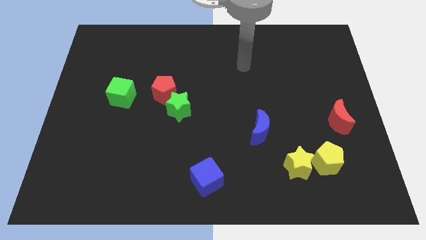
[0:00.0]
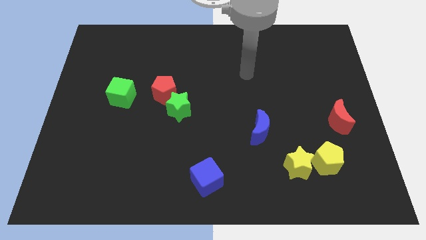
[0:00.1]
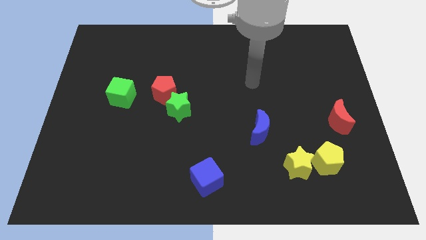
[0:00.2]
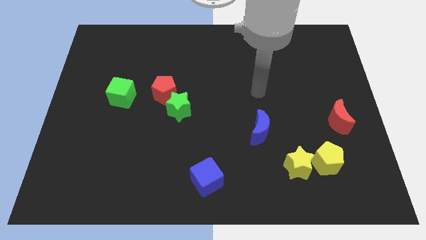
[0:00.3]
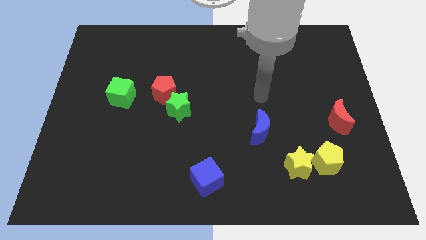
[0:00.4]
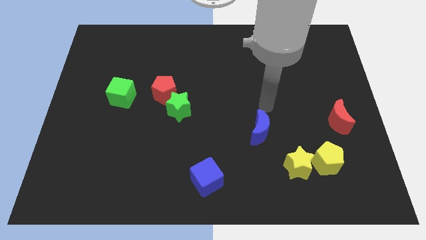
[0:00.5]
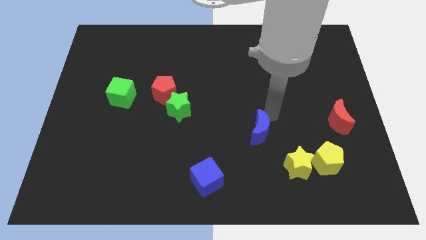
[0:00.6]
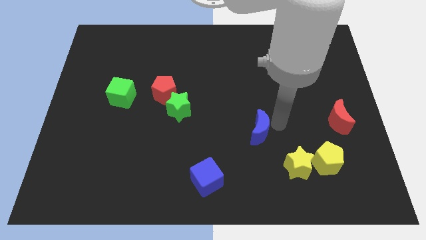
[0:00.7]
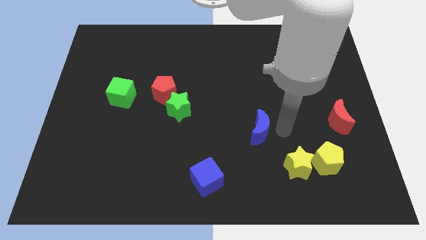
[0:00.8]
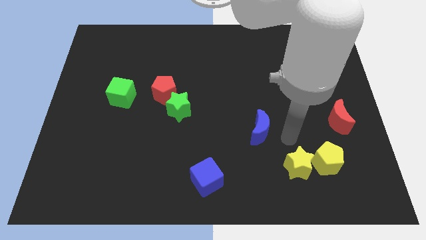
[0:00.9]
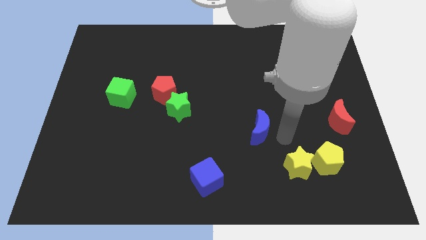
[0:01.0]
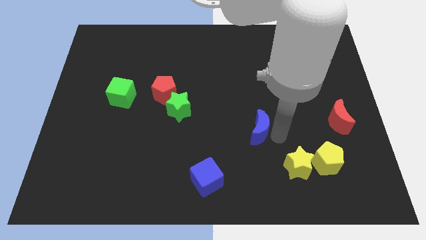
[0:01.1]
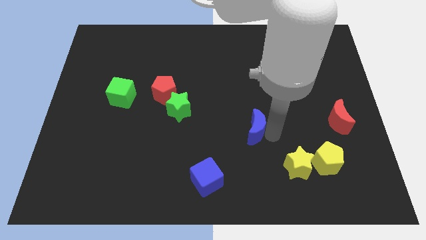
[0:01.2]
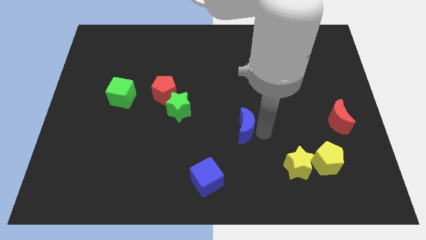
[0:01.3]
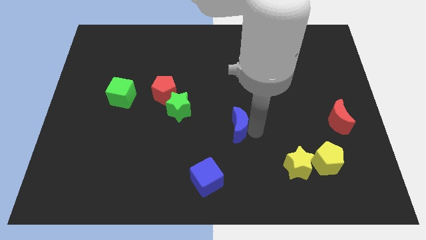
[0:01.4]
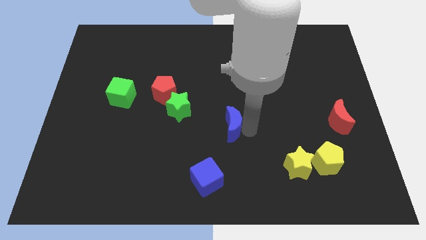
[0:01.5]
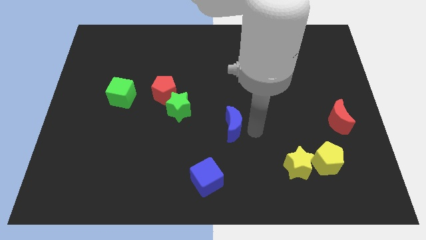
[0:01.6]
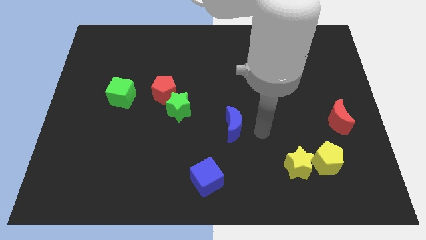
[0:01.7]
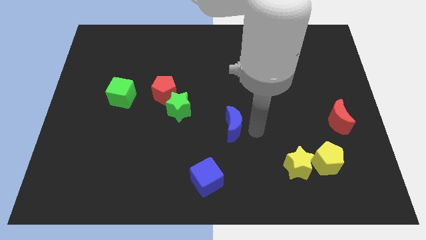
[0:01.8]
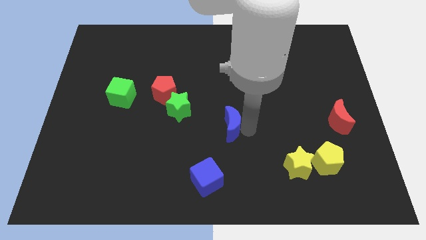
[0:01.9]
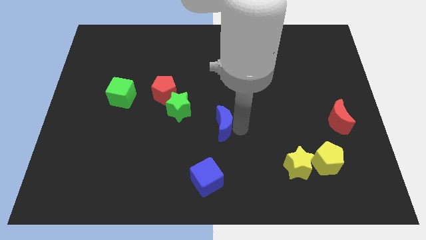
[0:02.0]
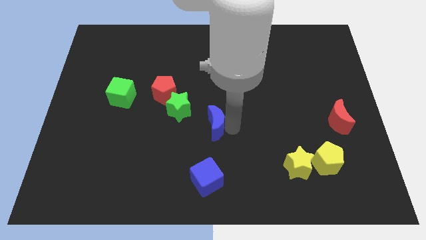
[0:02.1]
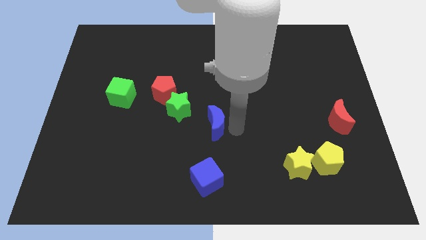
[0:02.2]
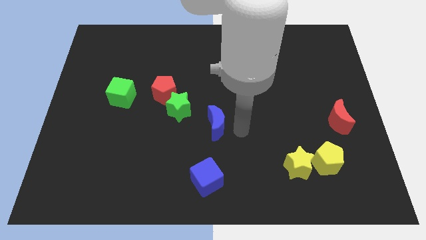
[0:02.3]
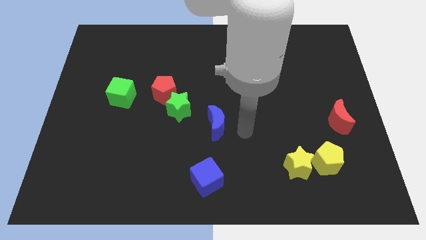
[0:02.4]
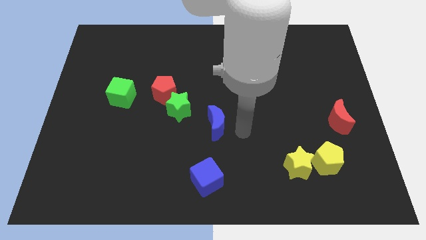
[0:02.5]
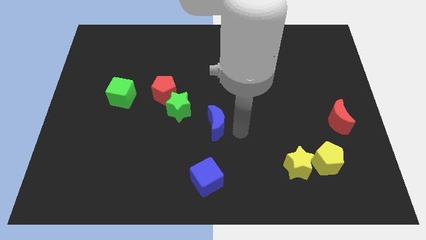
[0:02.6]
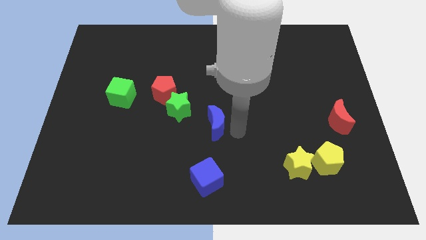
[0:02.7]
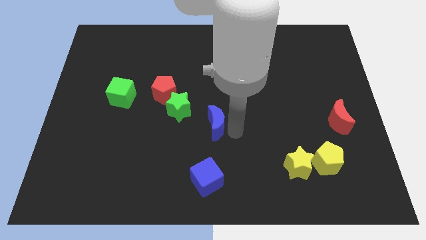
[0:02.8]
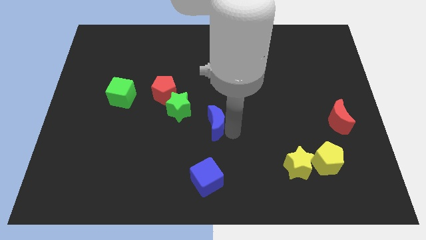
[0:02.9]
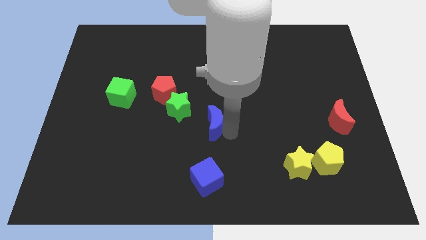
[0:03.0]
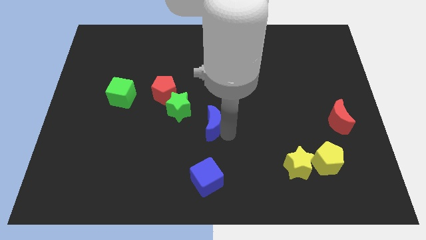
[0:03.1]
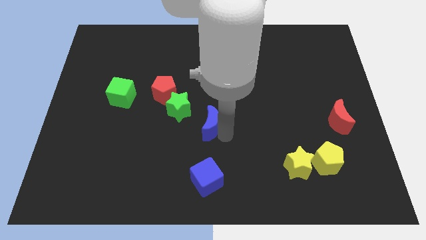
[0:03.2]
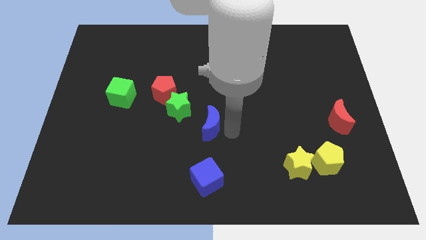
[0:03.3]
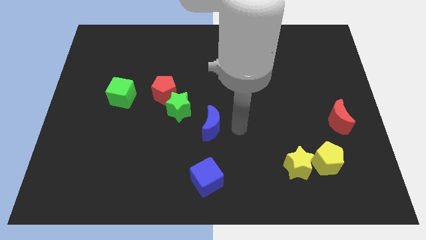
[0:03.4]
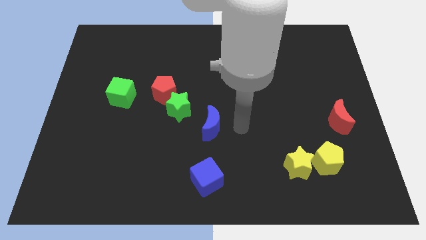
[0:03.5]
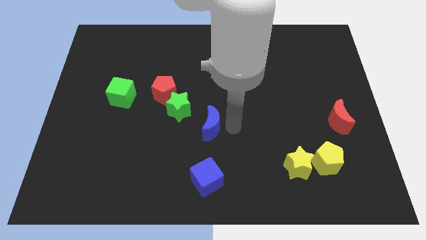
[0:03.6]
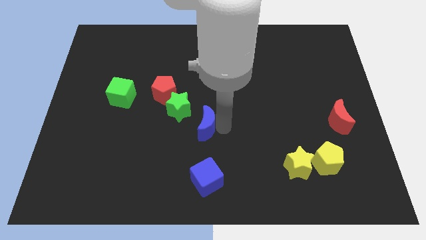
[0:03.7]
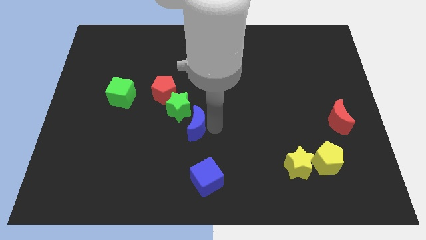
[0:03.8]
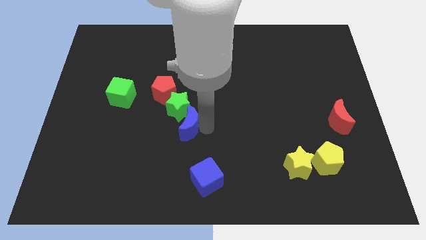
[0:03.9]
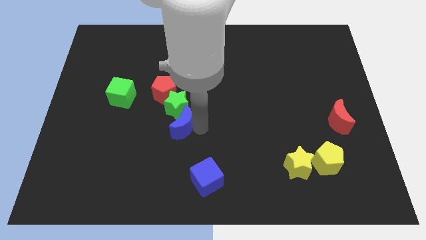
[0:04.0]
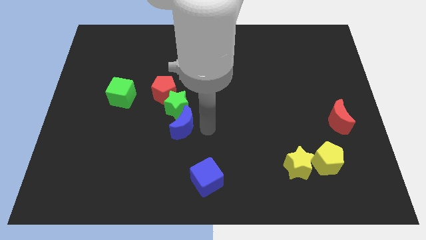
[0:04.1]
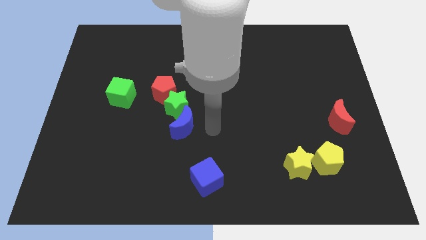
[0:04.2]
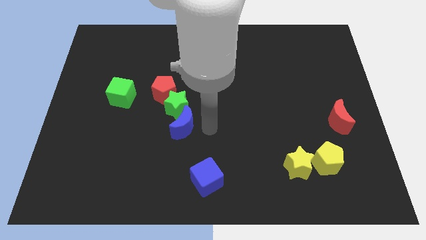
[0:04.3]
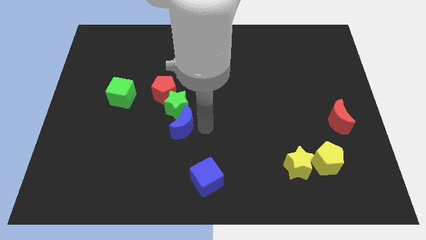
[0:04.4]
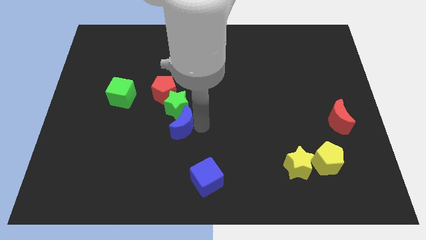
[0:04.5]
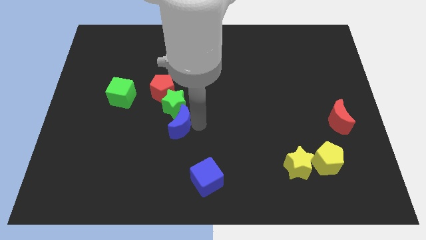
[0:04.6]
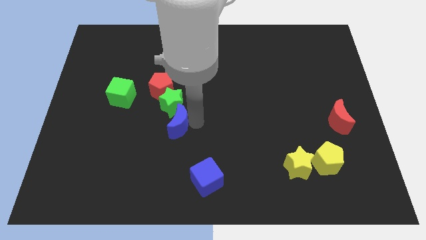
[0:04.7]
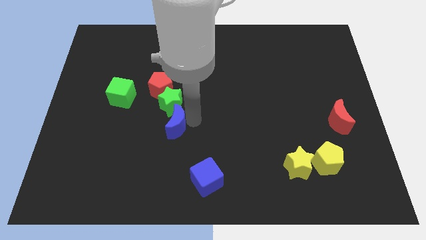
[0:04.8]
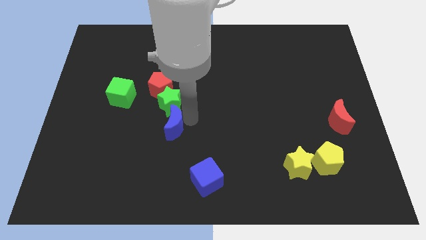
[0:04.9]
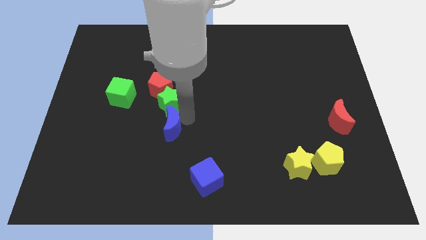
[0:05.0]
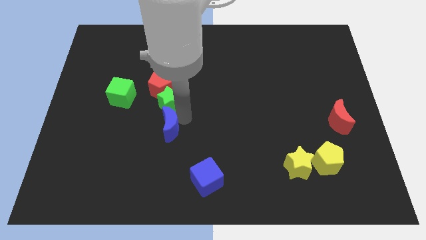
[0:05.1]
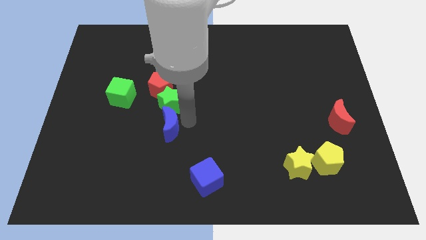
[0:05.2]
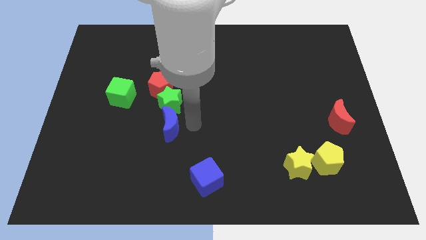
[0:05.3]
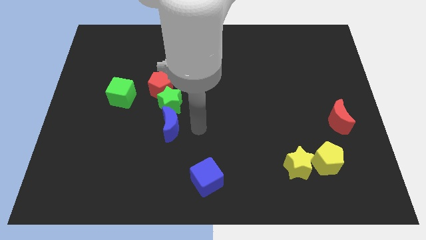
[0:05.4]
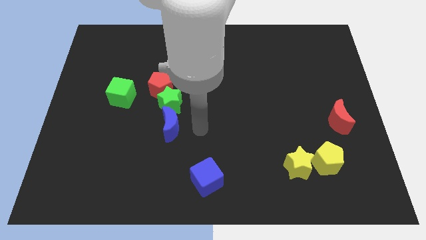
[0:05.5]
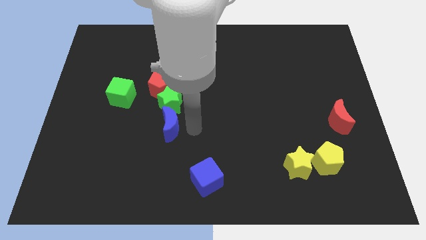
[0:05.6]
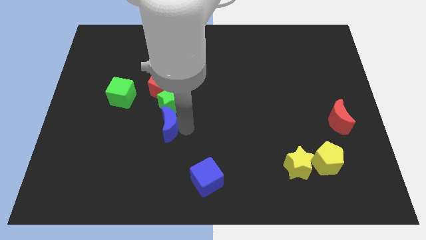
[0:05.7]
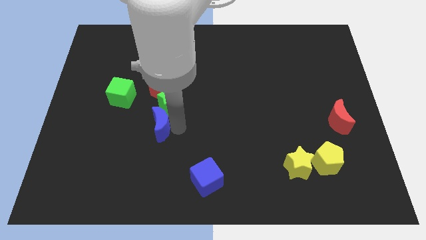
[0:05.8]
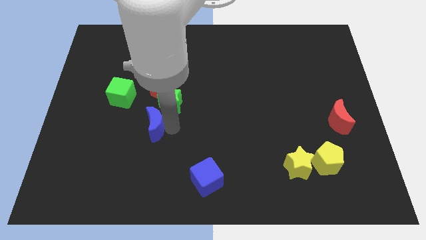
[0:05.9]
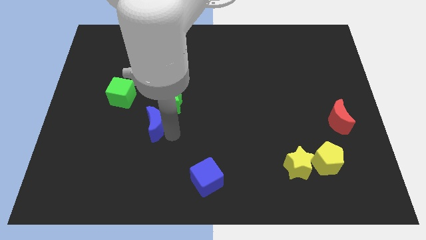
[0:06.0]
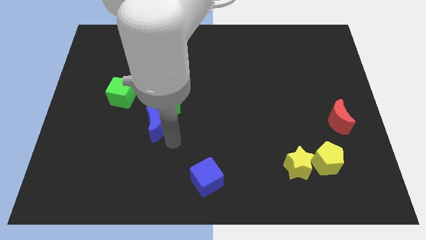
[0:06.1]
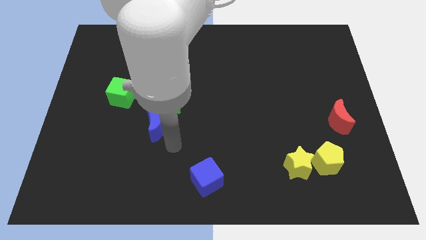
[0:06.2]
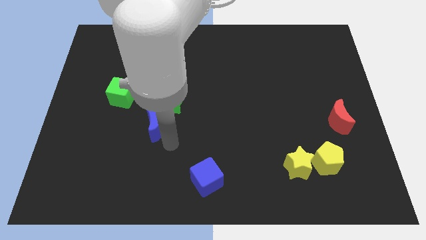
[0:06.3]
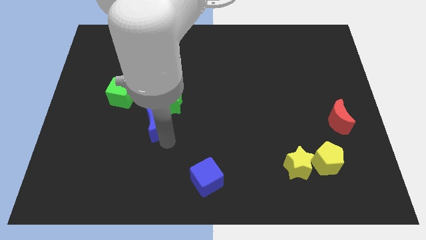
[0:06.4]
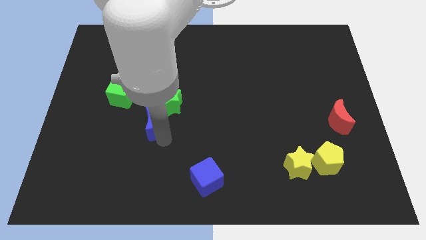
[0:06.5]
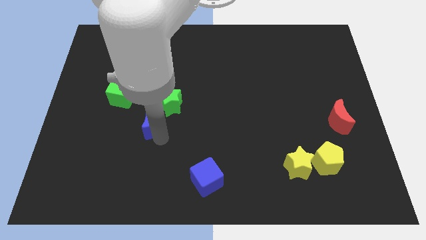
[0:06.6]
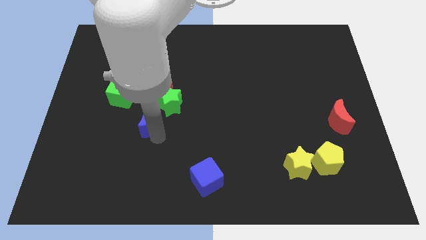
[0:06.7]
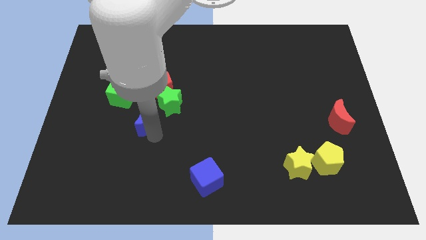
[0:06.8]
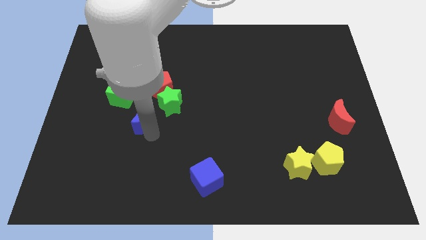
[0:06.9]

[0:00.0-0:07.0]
push the blue moon diagonally down and to the left of the red pentagon

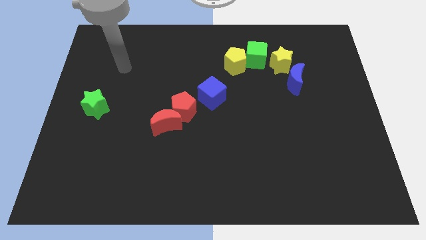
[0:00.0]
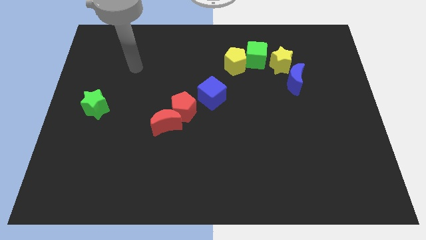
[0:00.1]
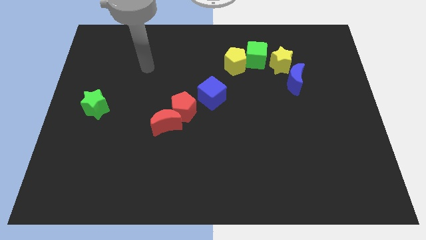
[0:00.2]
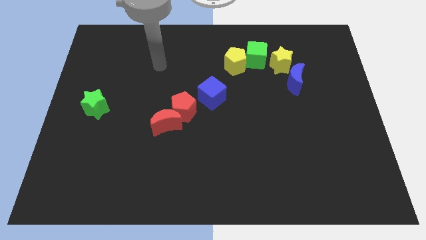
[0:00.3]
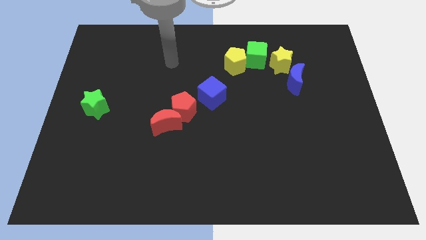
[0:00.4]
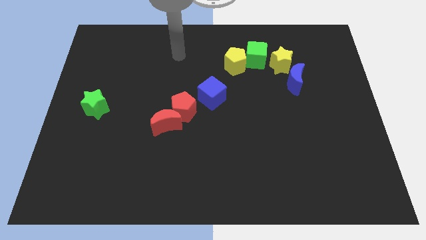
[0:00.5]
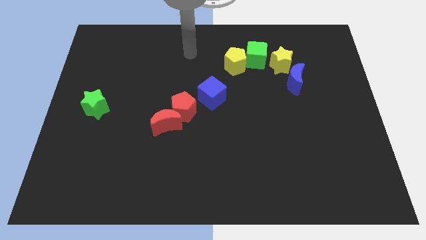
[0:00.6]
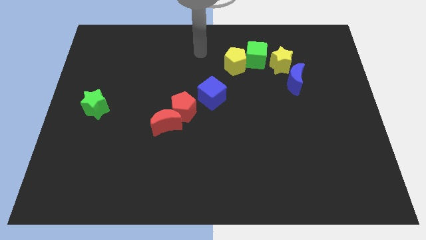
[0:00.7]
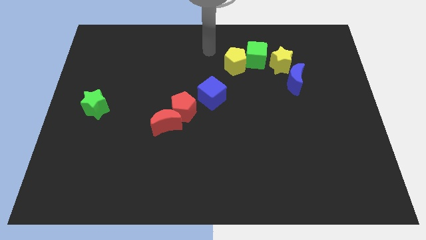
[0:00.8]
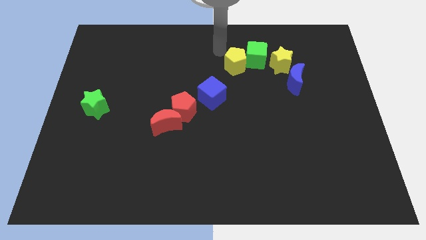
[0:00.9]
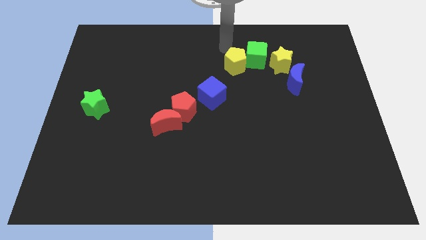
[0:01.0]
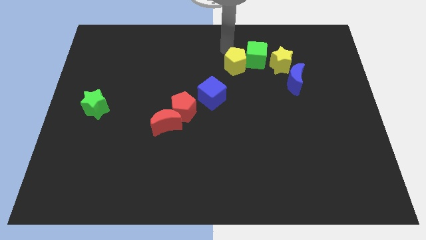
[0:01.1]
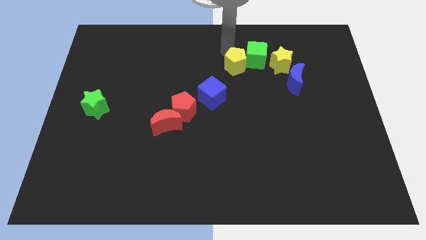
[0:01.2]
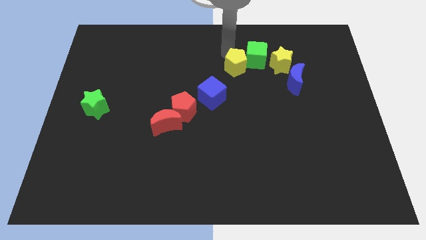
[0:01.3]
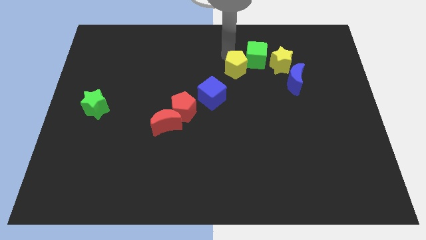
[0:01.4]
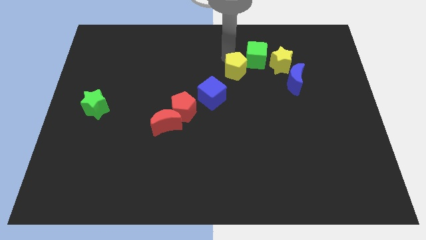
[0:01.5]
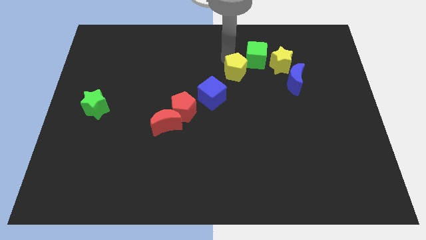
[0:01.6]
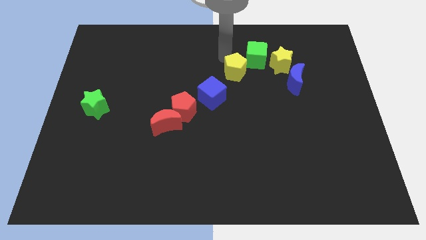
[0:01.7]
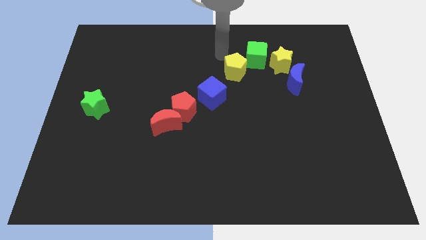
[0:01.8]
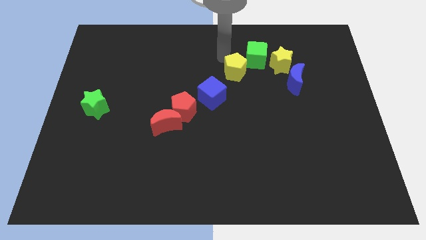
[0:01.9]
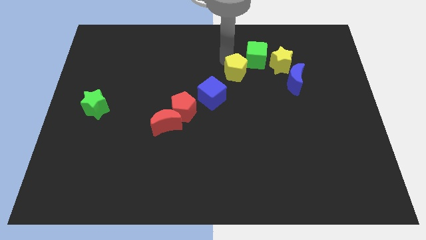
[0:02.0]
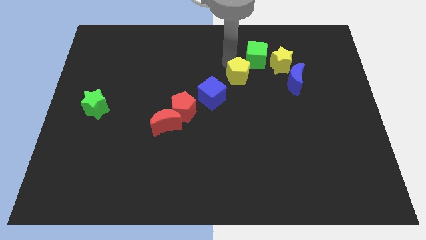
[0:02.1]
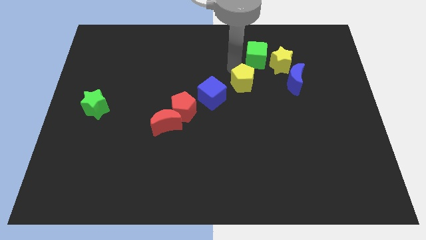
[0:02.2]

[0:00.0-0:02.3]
push the yellow pentagon right of the blue cube
